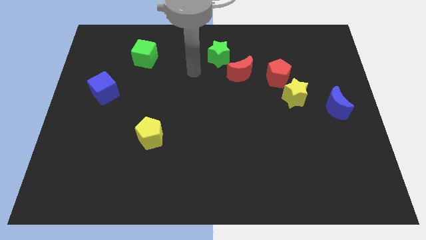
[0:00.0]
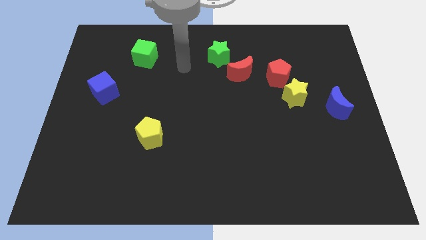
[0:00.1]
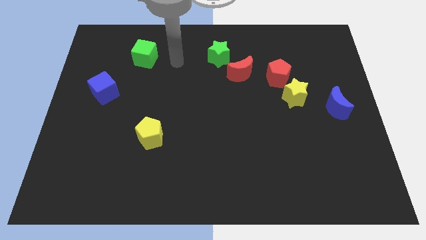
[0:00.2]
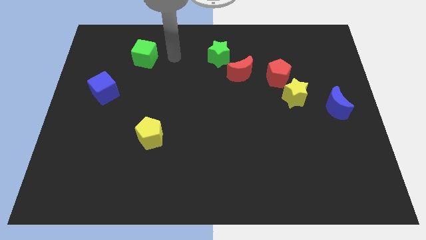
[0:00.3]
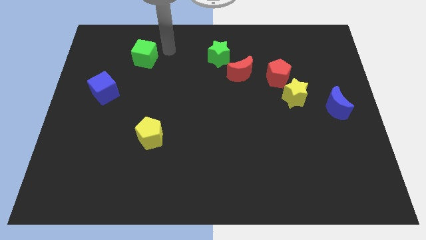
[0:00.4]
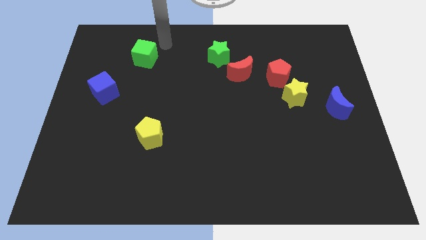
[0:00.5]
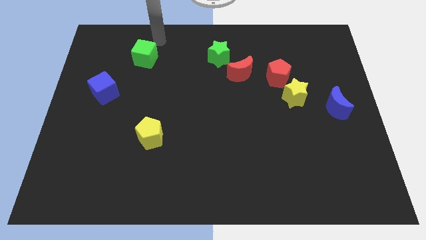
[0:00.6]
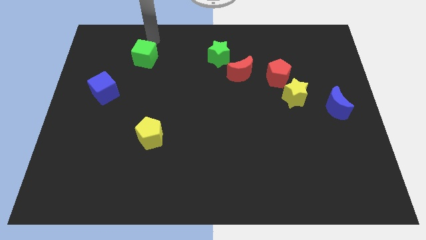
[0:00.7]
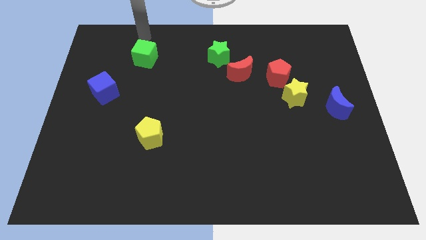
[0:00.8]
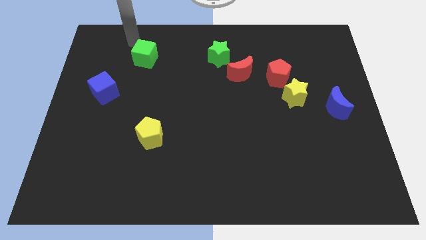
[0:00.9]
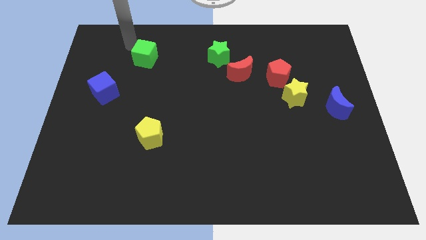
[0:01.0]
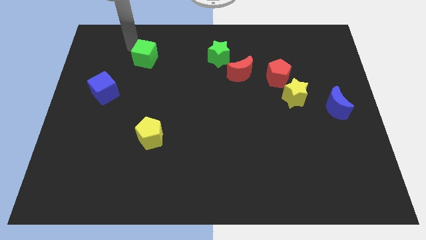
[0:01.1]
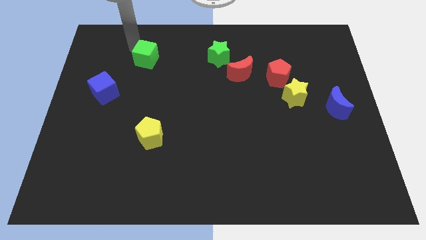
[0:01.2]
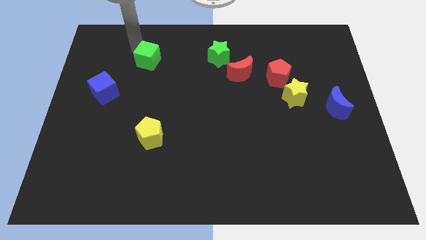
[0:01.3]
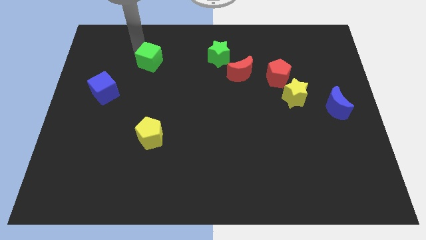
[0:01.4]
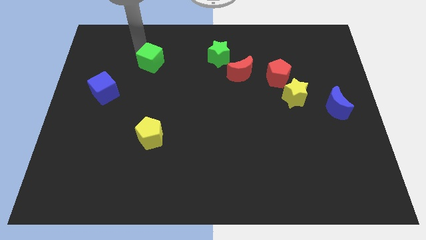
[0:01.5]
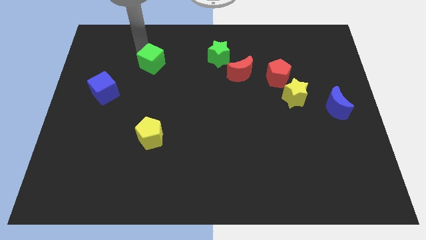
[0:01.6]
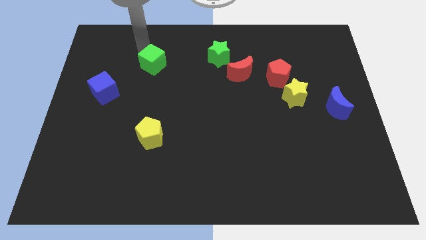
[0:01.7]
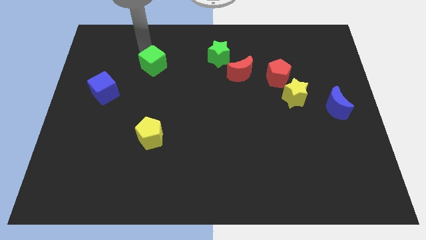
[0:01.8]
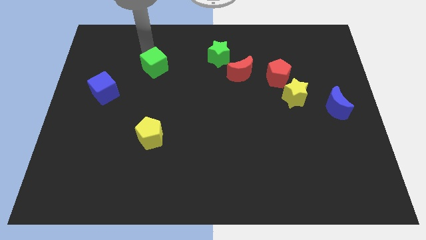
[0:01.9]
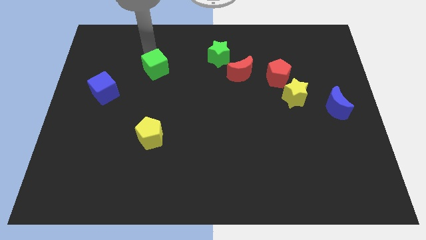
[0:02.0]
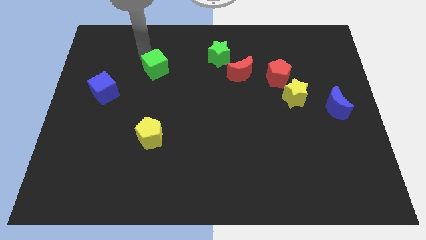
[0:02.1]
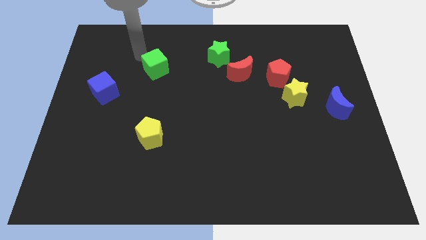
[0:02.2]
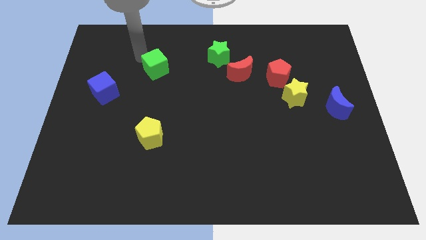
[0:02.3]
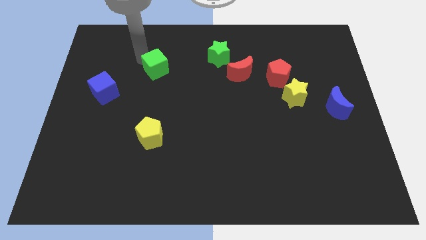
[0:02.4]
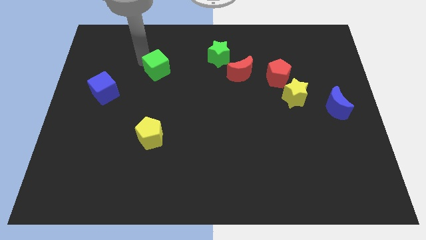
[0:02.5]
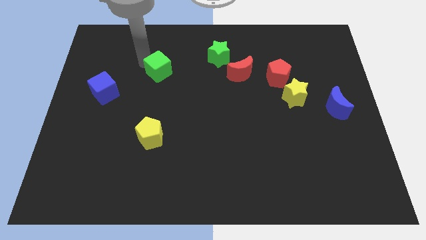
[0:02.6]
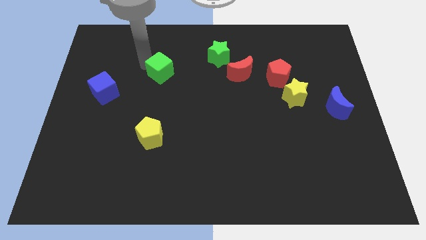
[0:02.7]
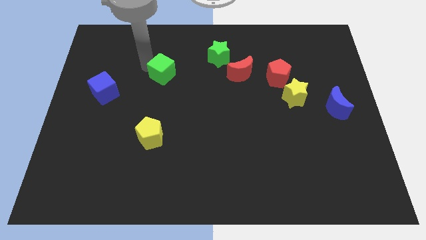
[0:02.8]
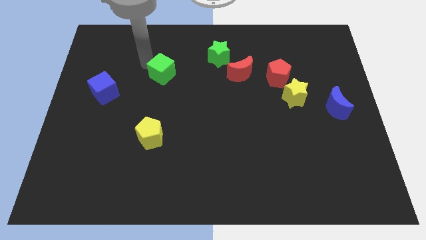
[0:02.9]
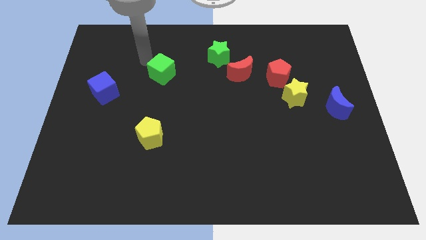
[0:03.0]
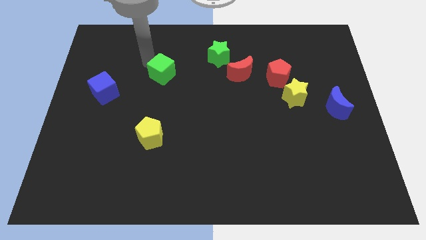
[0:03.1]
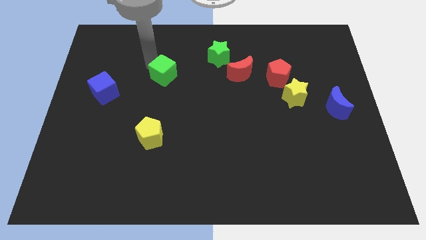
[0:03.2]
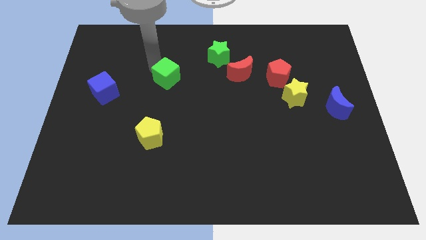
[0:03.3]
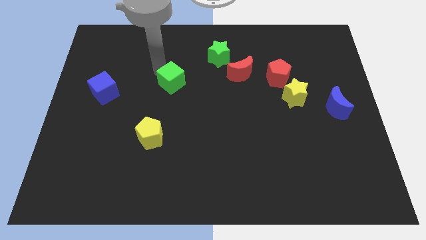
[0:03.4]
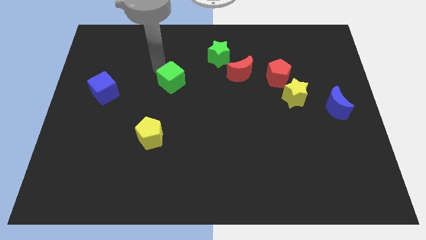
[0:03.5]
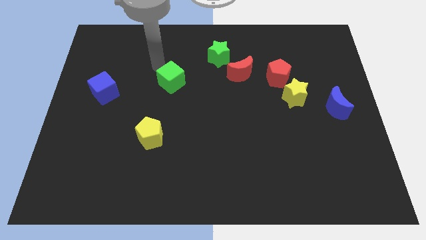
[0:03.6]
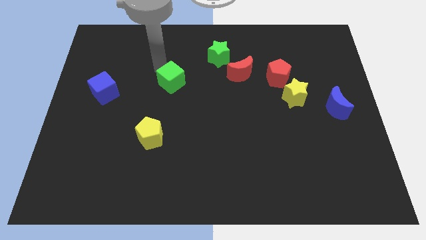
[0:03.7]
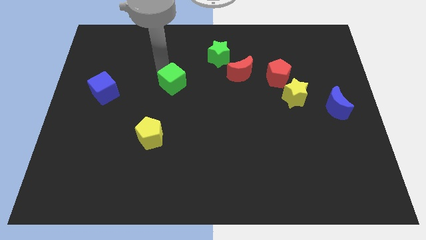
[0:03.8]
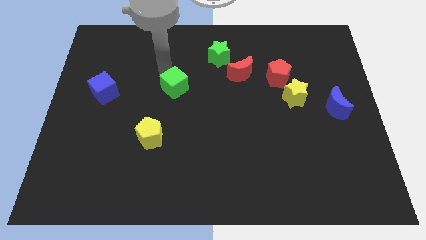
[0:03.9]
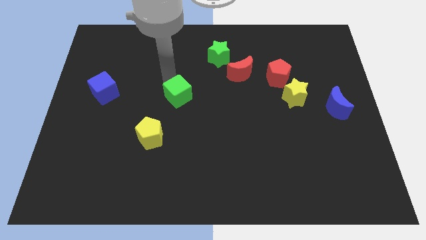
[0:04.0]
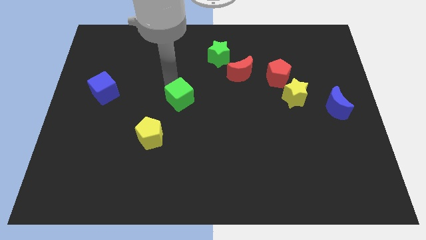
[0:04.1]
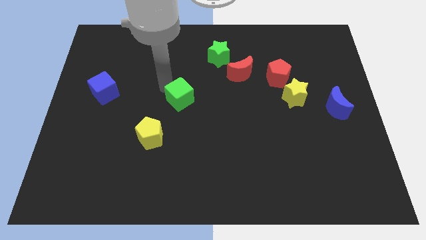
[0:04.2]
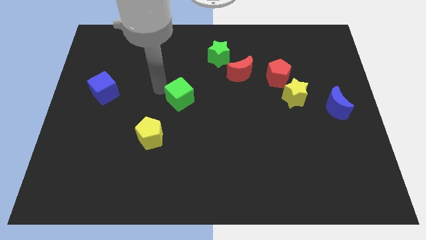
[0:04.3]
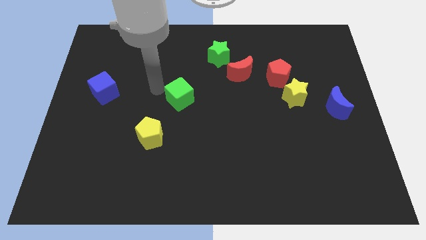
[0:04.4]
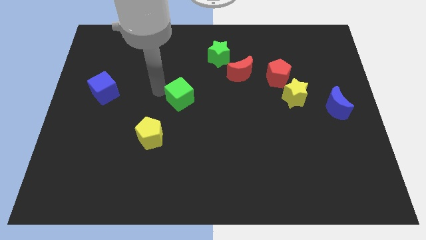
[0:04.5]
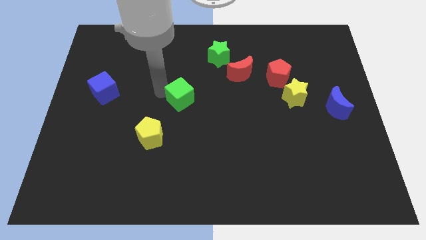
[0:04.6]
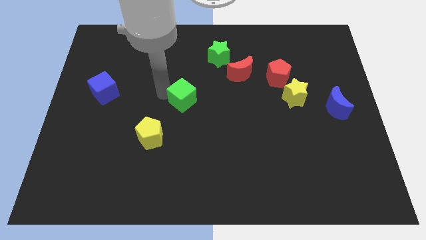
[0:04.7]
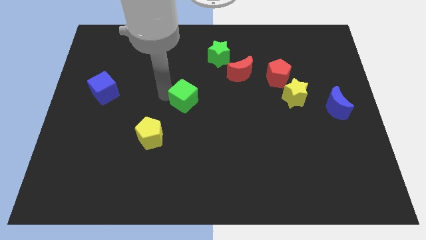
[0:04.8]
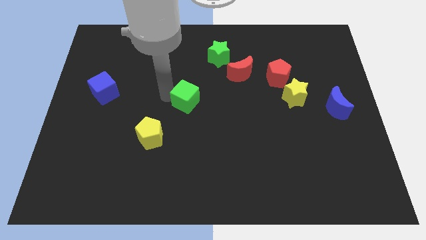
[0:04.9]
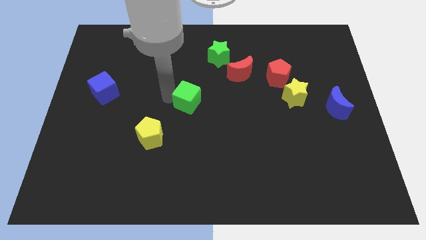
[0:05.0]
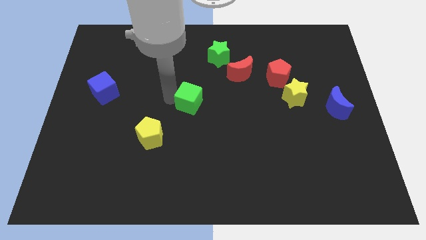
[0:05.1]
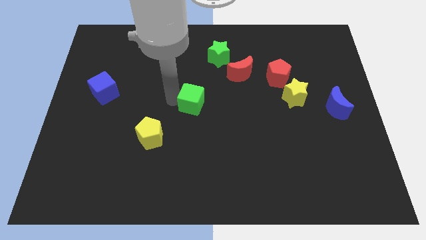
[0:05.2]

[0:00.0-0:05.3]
push the green cube diagonally downwards and right

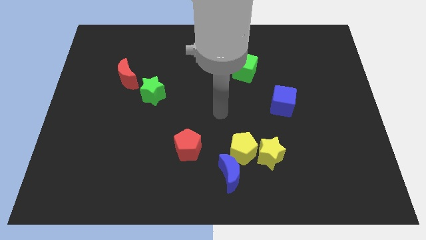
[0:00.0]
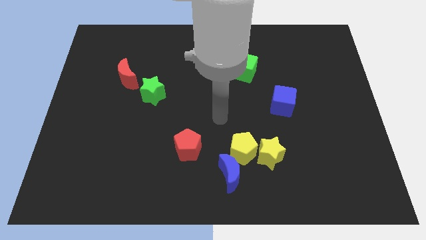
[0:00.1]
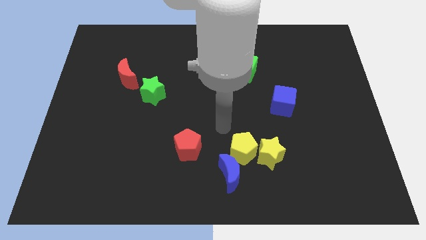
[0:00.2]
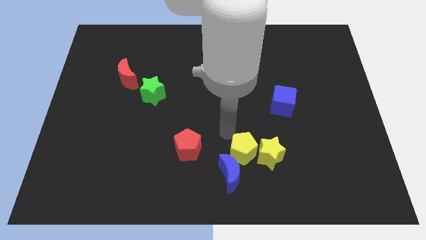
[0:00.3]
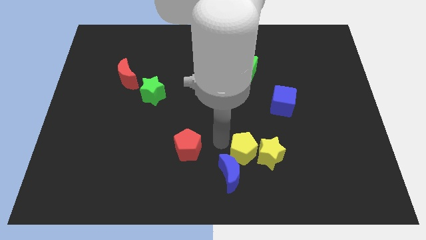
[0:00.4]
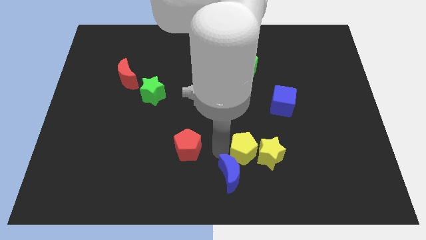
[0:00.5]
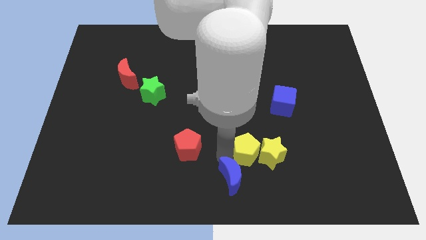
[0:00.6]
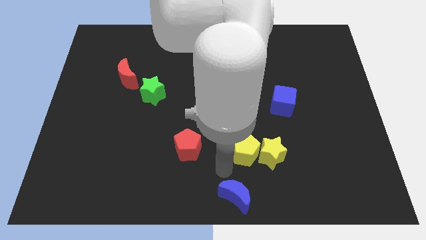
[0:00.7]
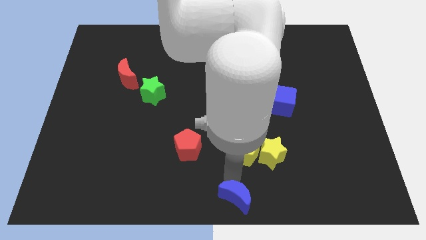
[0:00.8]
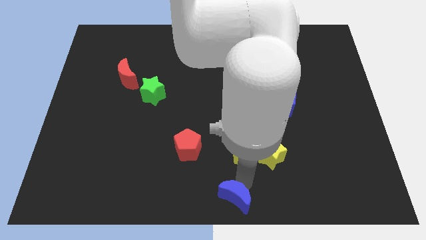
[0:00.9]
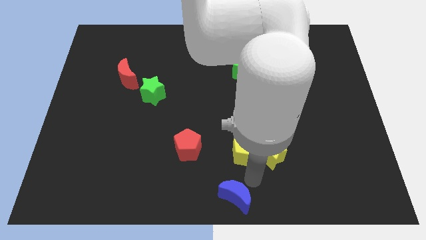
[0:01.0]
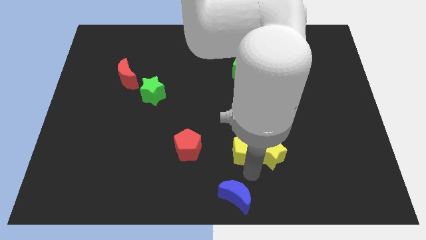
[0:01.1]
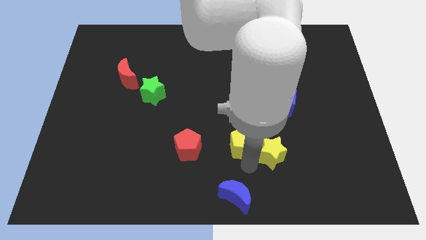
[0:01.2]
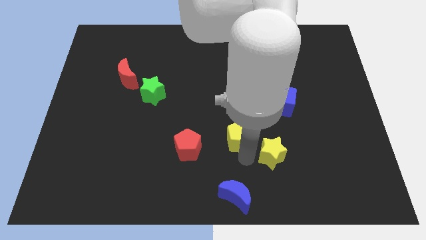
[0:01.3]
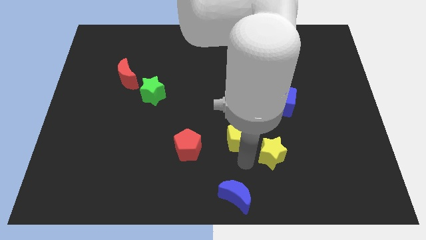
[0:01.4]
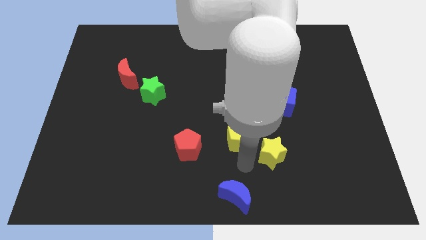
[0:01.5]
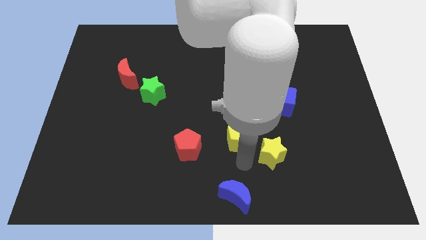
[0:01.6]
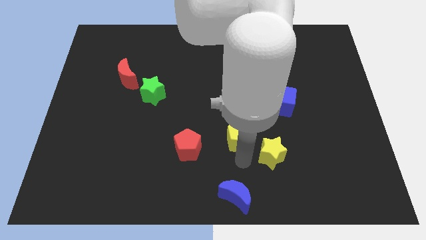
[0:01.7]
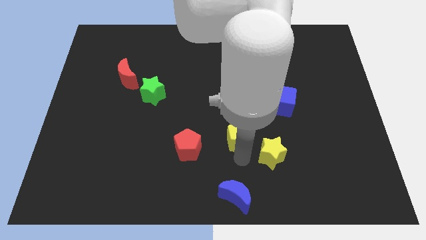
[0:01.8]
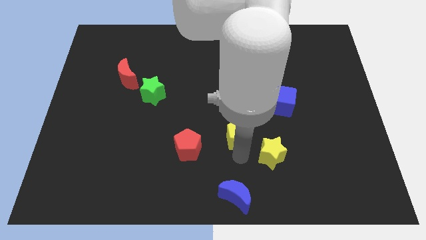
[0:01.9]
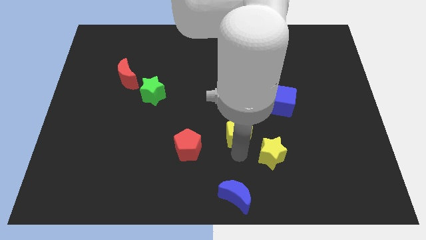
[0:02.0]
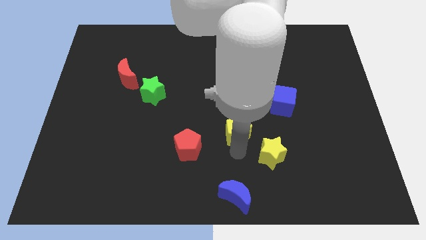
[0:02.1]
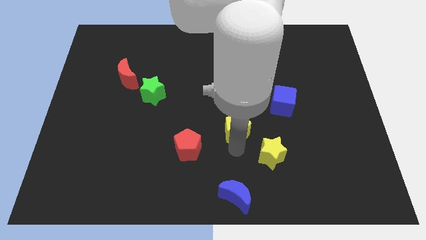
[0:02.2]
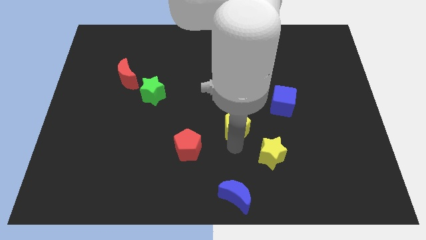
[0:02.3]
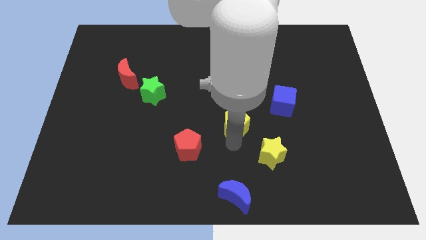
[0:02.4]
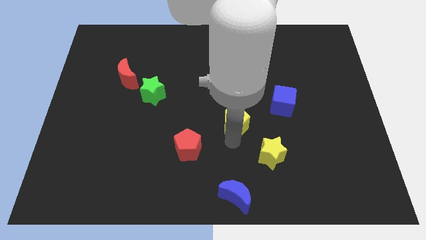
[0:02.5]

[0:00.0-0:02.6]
move the yellow pentagon up somewhat

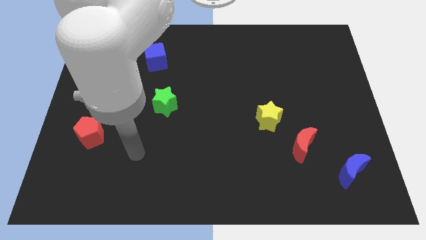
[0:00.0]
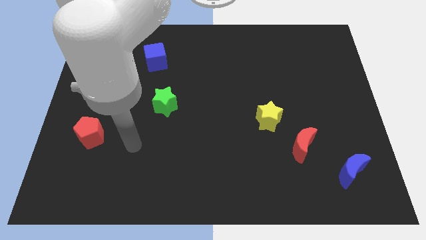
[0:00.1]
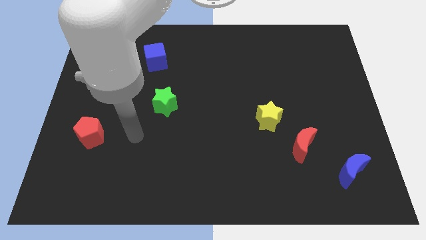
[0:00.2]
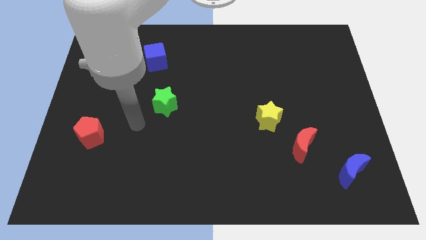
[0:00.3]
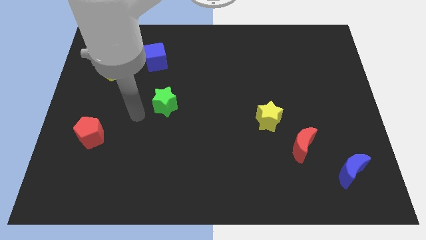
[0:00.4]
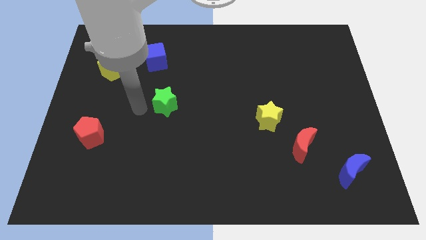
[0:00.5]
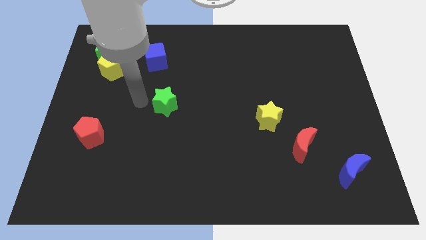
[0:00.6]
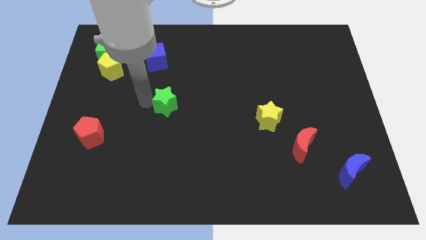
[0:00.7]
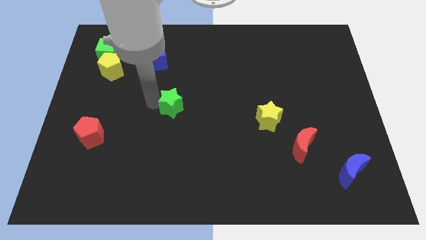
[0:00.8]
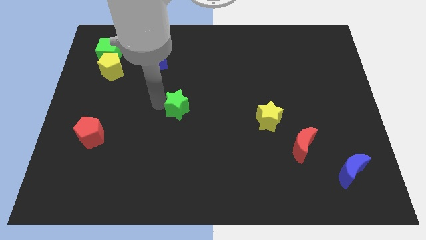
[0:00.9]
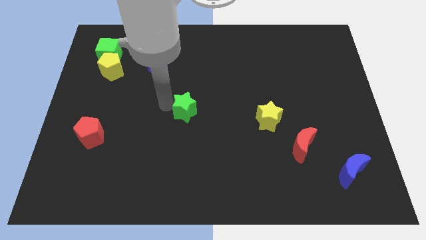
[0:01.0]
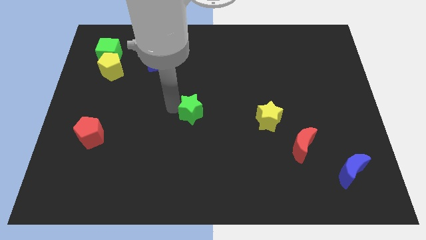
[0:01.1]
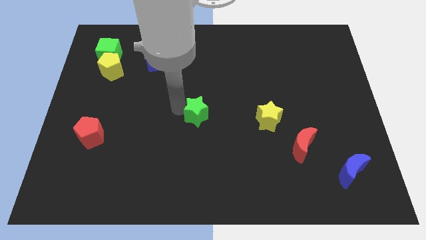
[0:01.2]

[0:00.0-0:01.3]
push the green star to the right a little bit
